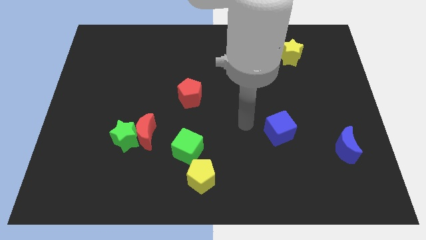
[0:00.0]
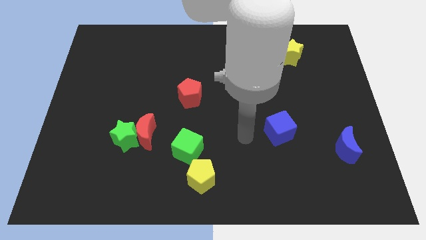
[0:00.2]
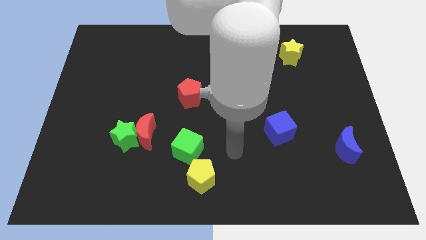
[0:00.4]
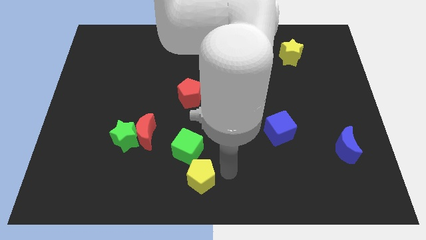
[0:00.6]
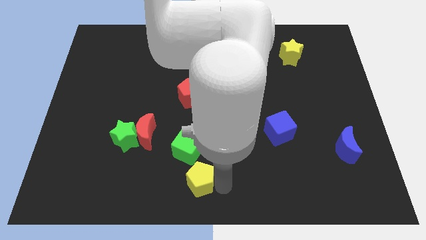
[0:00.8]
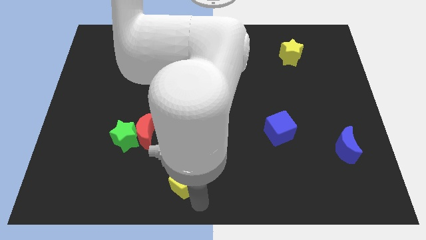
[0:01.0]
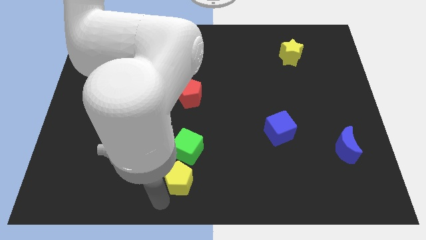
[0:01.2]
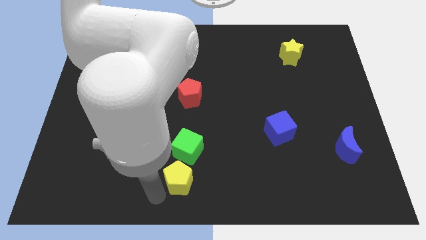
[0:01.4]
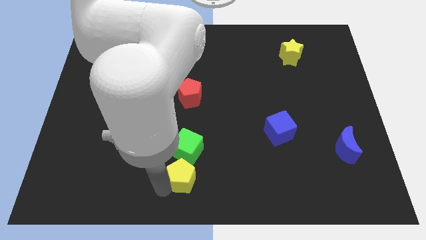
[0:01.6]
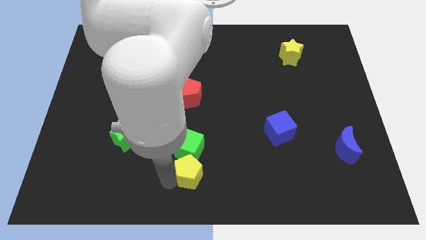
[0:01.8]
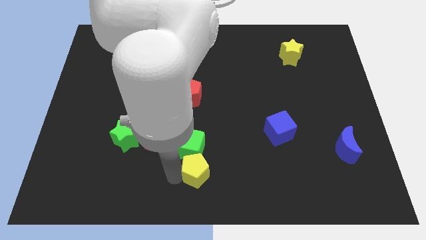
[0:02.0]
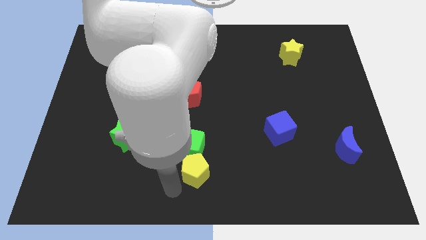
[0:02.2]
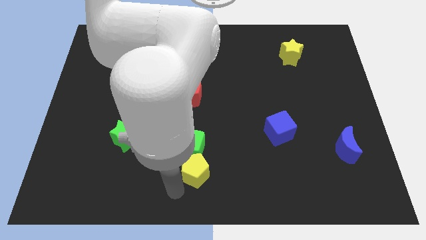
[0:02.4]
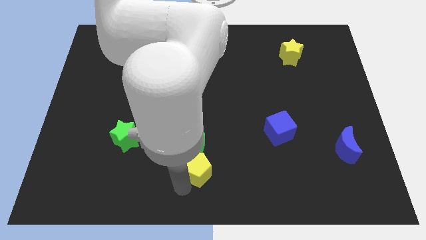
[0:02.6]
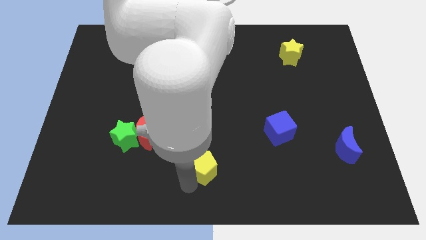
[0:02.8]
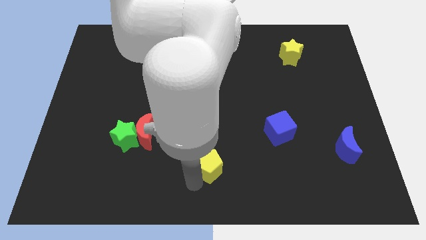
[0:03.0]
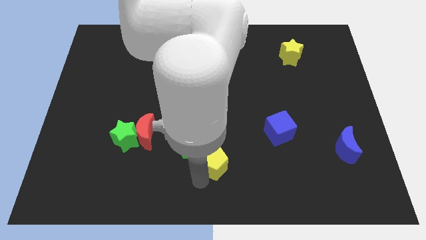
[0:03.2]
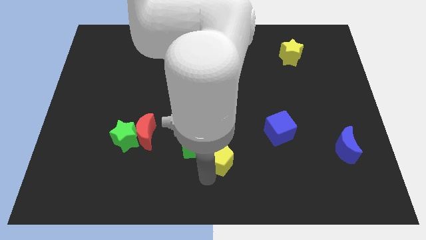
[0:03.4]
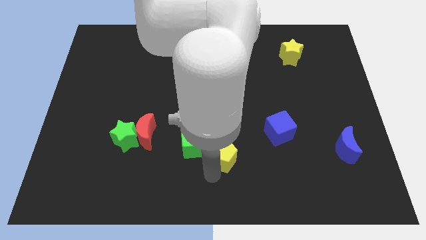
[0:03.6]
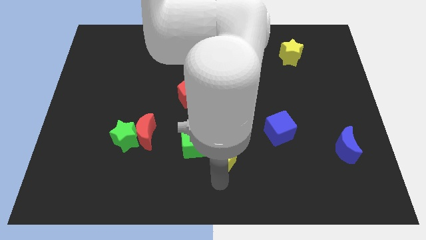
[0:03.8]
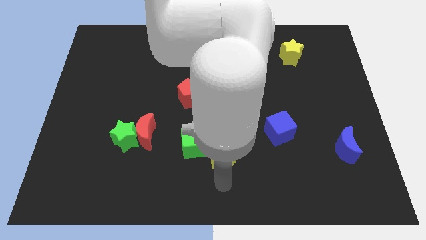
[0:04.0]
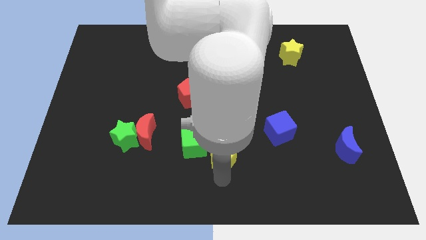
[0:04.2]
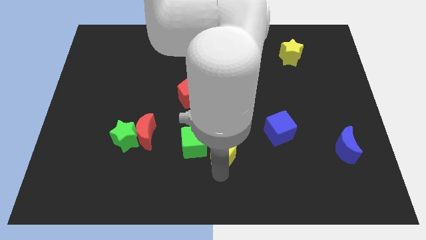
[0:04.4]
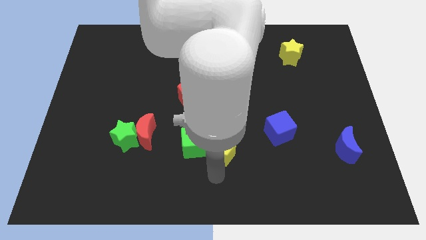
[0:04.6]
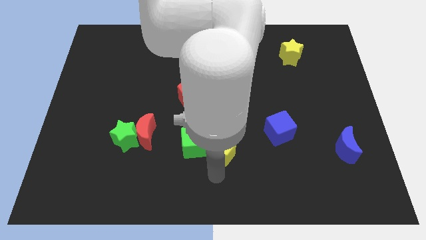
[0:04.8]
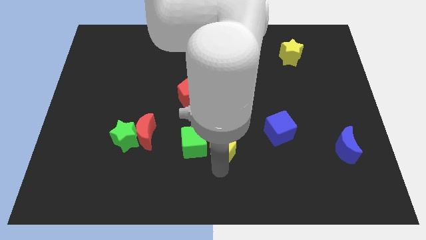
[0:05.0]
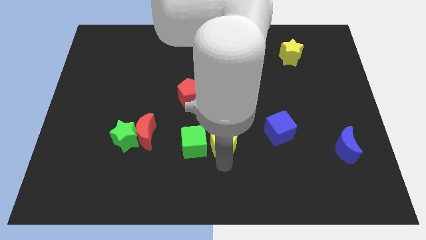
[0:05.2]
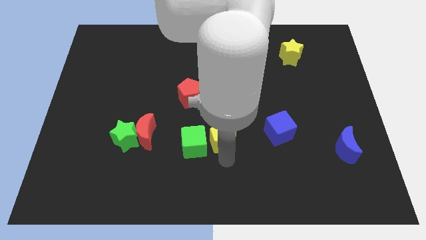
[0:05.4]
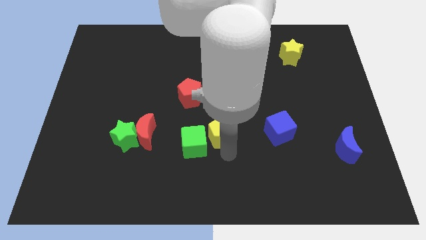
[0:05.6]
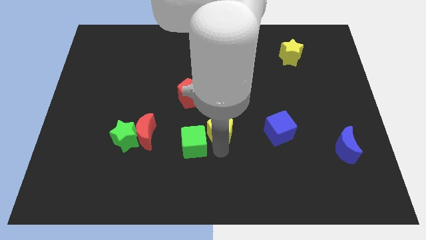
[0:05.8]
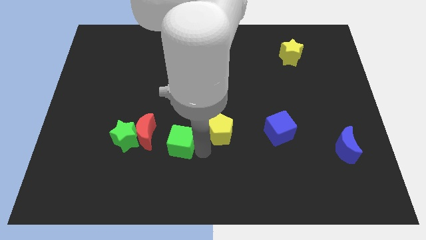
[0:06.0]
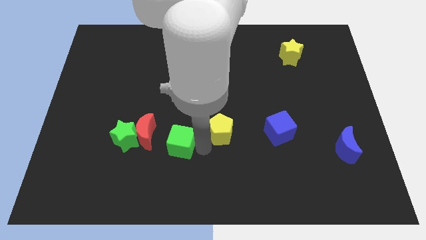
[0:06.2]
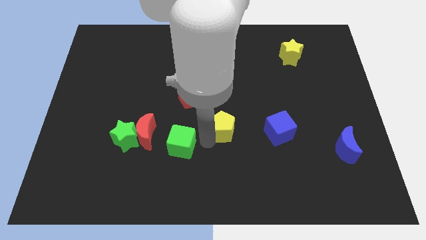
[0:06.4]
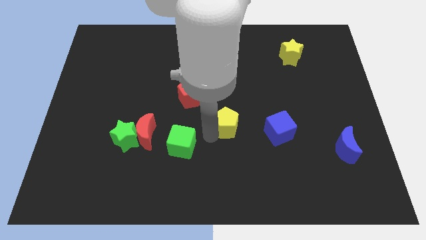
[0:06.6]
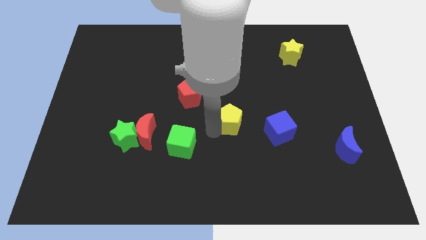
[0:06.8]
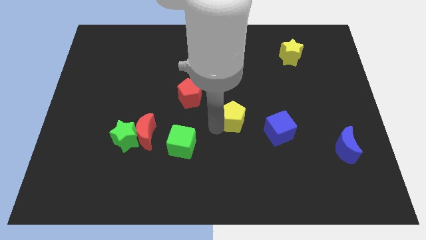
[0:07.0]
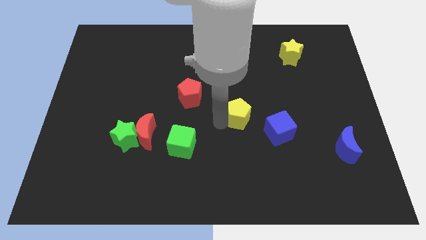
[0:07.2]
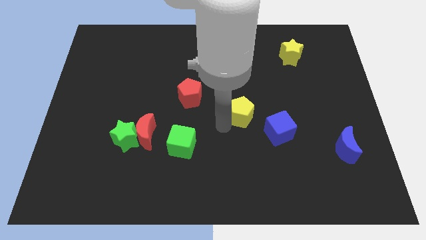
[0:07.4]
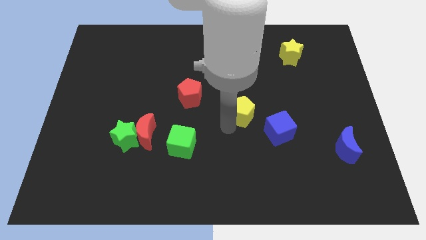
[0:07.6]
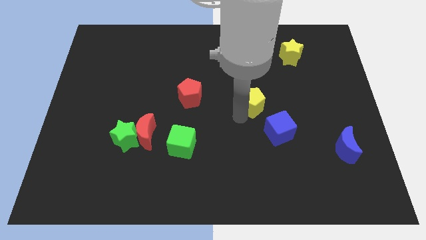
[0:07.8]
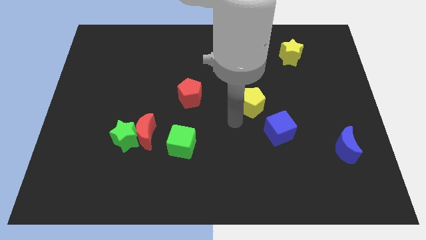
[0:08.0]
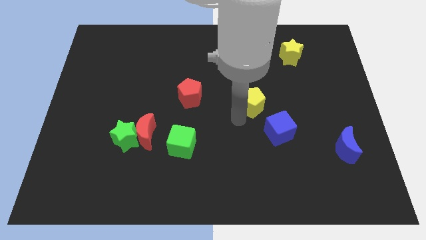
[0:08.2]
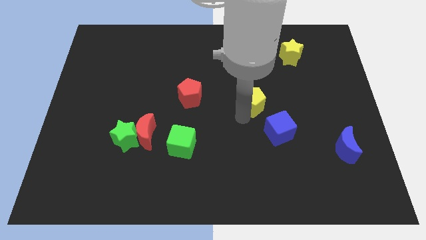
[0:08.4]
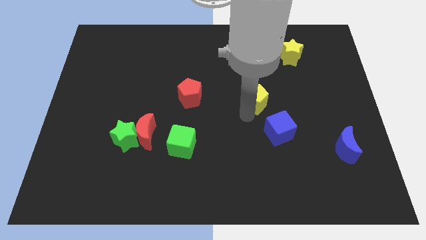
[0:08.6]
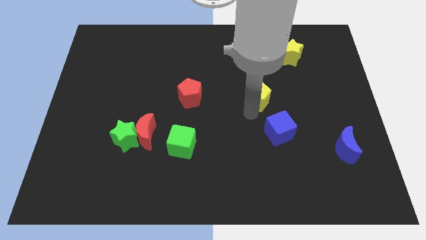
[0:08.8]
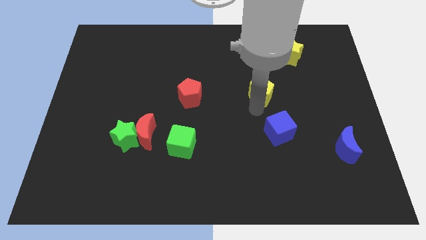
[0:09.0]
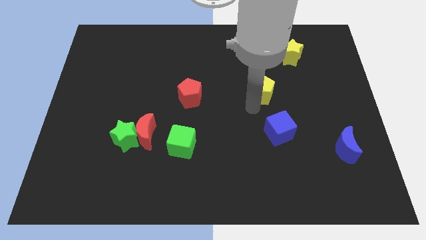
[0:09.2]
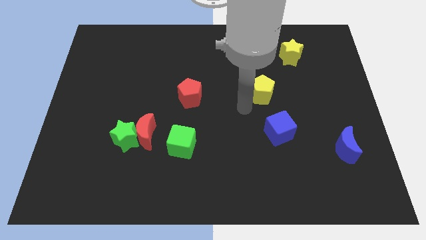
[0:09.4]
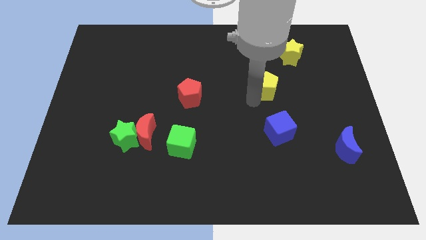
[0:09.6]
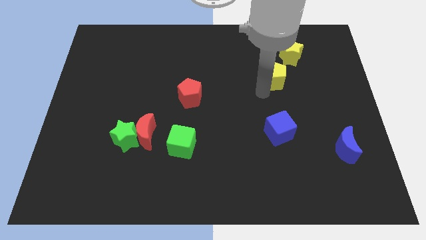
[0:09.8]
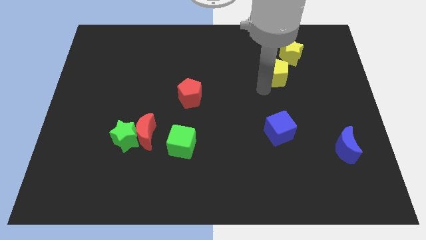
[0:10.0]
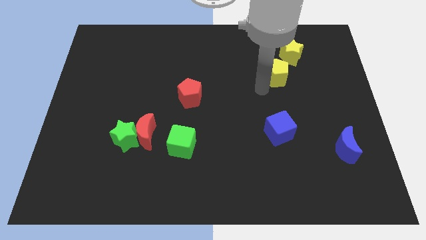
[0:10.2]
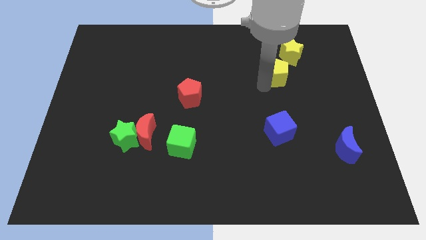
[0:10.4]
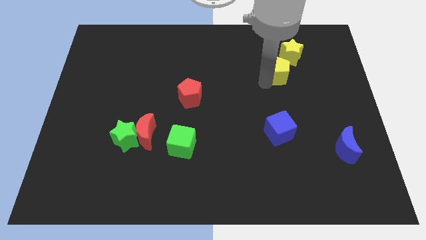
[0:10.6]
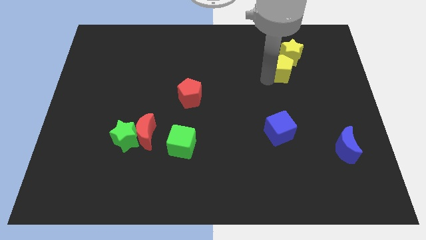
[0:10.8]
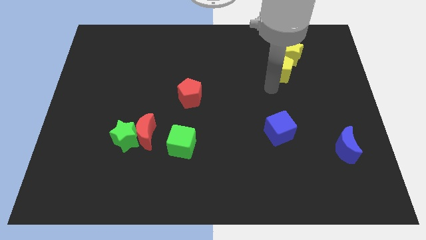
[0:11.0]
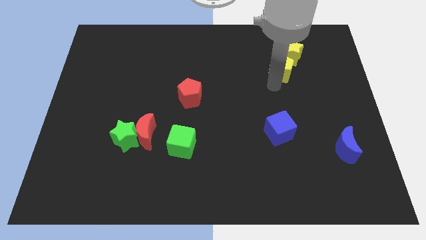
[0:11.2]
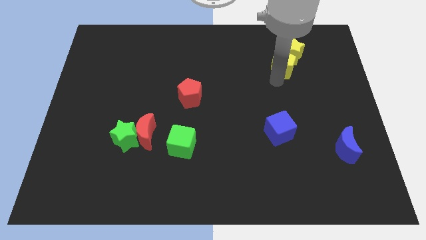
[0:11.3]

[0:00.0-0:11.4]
put the yellow pentagon towards the yellow star

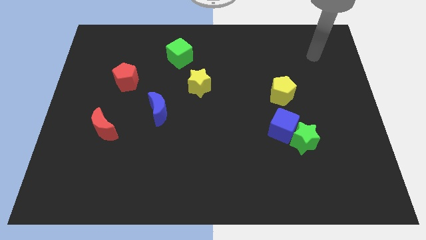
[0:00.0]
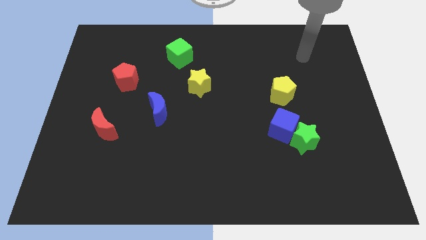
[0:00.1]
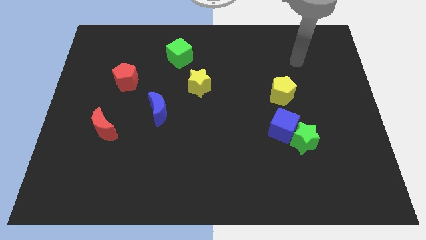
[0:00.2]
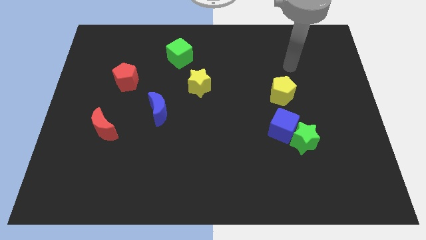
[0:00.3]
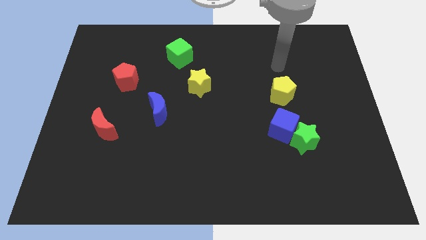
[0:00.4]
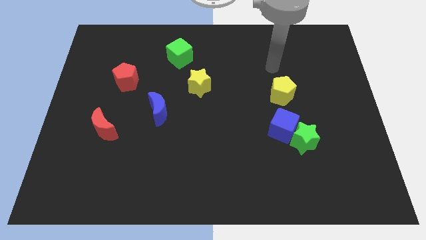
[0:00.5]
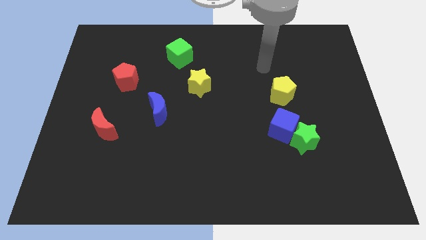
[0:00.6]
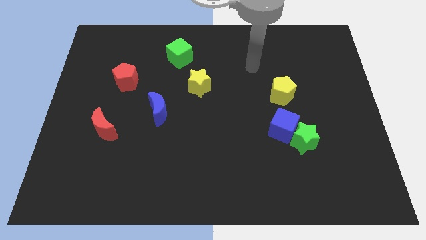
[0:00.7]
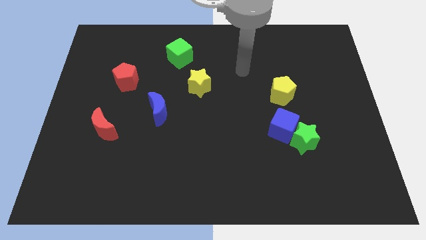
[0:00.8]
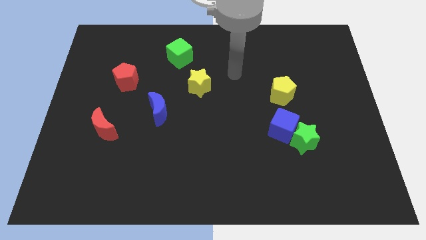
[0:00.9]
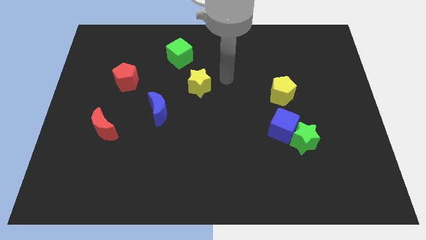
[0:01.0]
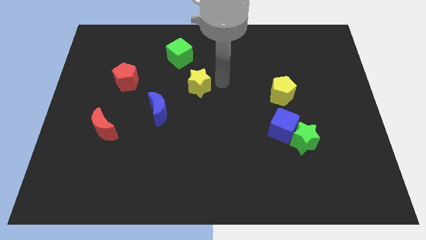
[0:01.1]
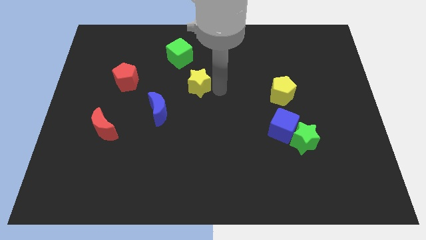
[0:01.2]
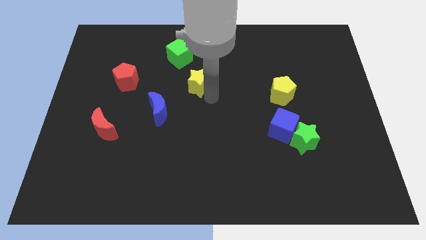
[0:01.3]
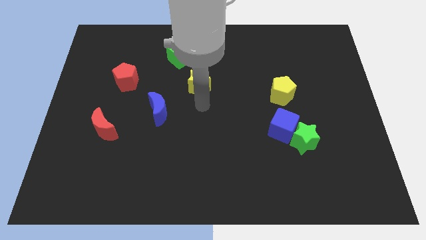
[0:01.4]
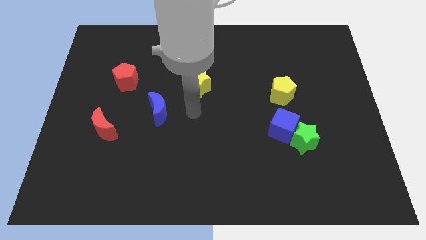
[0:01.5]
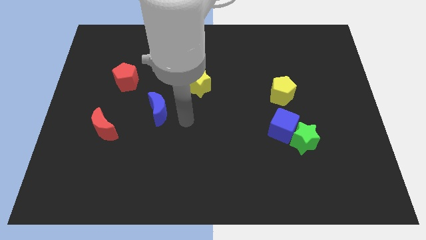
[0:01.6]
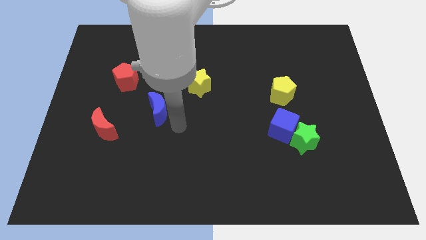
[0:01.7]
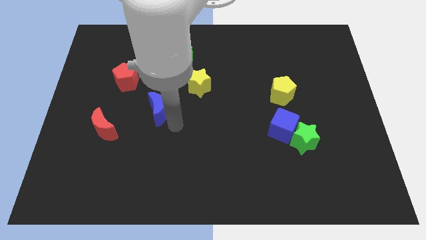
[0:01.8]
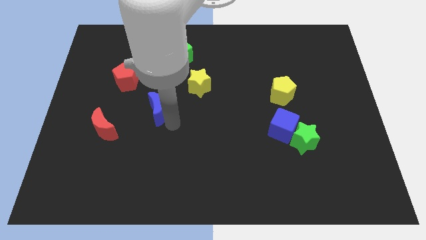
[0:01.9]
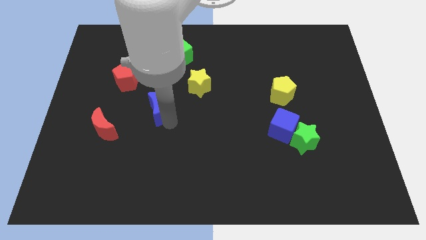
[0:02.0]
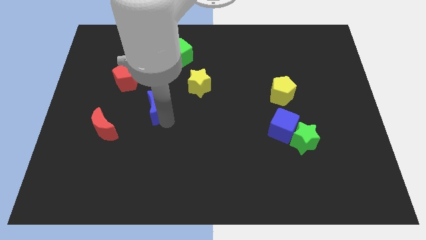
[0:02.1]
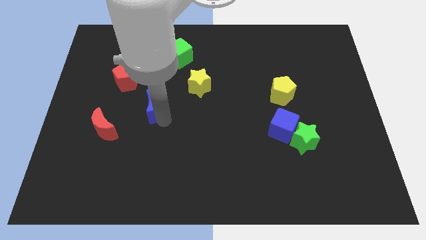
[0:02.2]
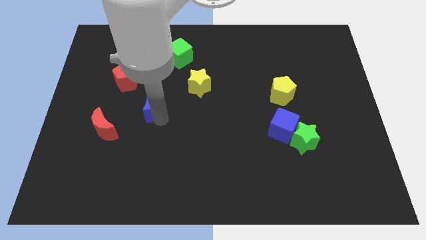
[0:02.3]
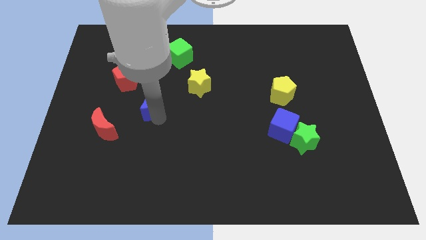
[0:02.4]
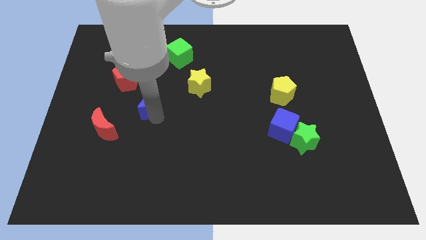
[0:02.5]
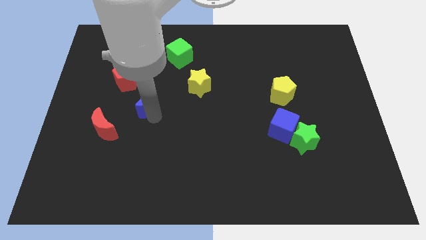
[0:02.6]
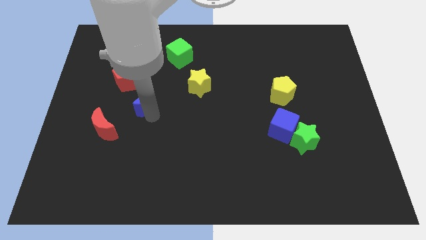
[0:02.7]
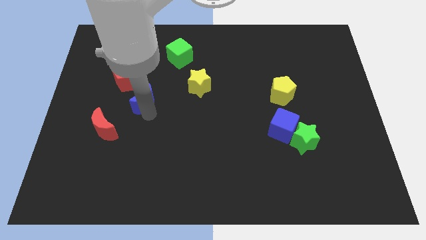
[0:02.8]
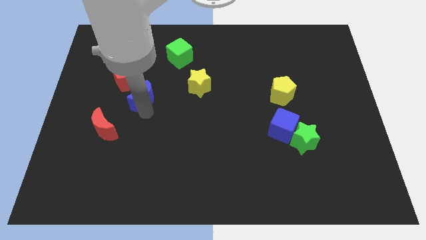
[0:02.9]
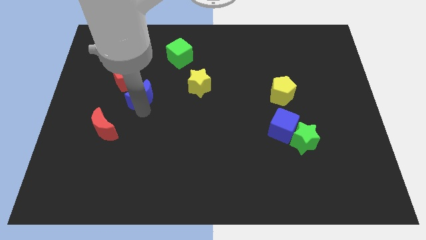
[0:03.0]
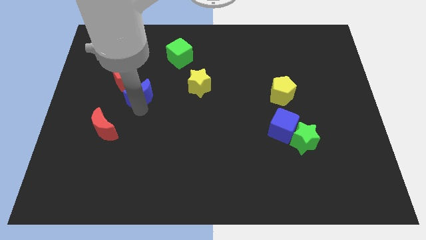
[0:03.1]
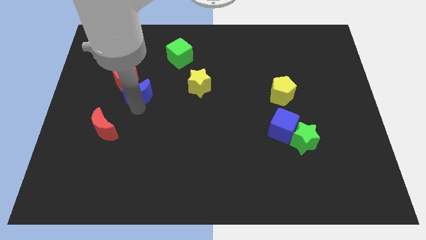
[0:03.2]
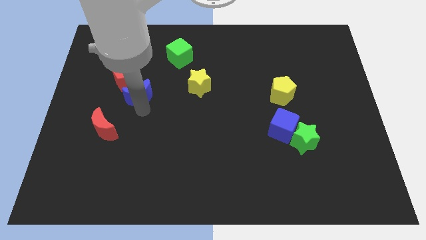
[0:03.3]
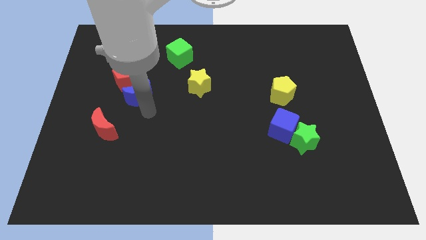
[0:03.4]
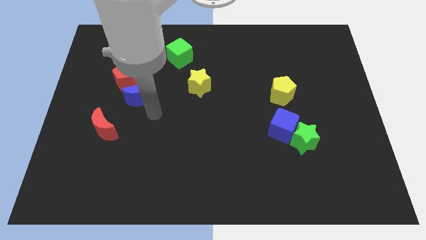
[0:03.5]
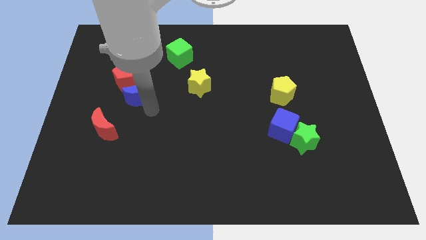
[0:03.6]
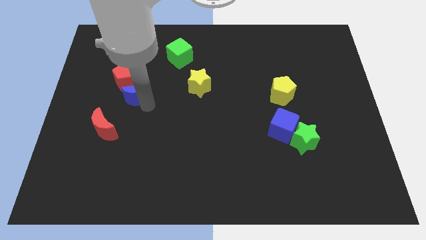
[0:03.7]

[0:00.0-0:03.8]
slide the blue moon close to the red pentagon
